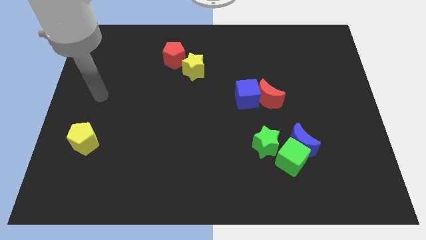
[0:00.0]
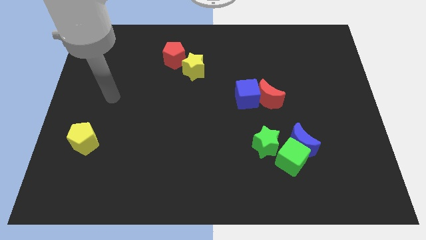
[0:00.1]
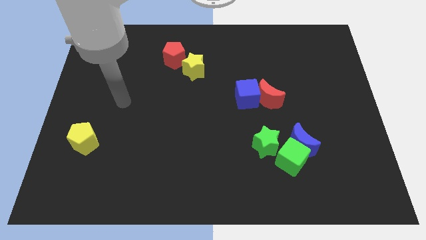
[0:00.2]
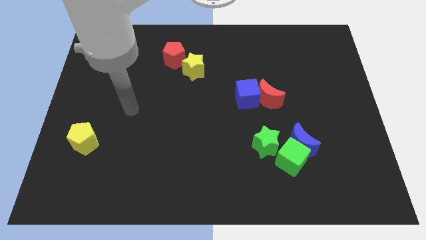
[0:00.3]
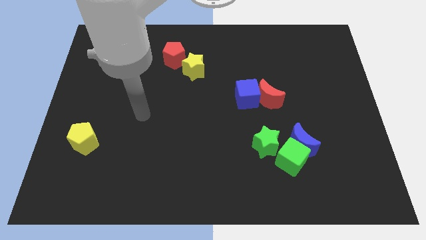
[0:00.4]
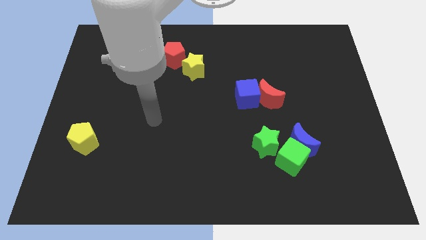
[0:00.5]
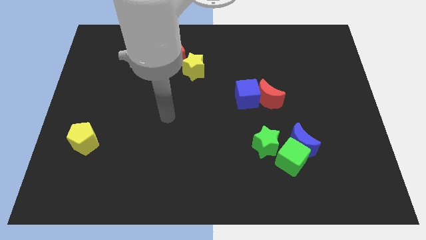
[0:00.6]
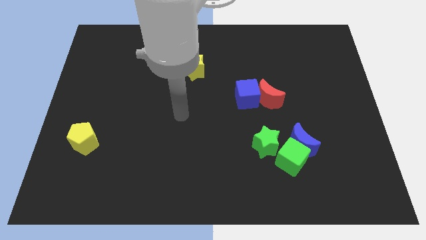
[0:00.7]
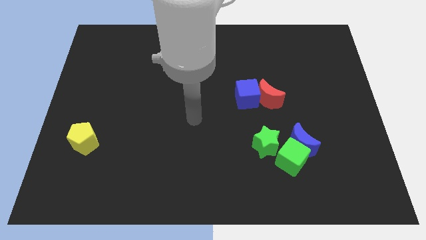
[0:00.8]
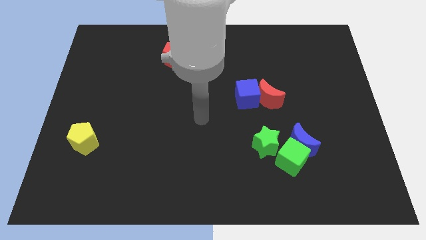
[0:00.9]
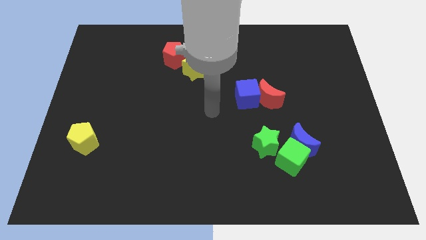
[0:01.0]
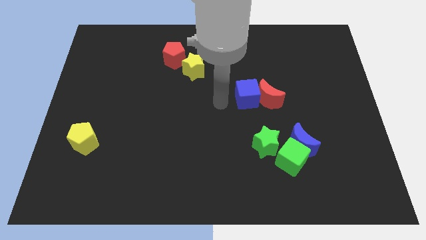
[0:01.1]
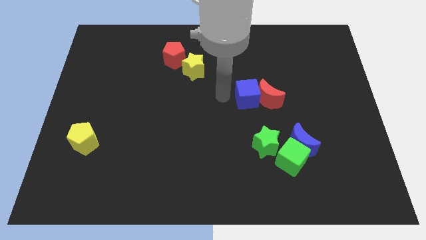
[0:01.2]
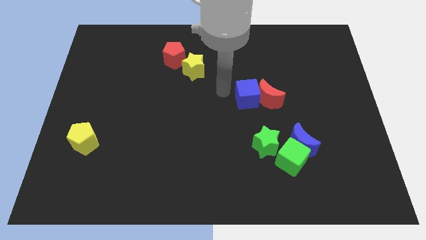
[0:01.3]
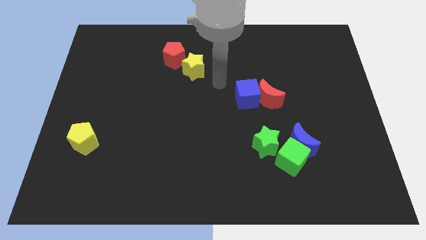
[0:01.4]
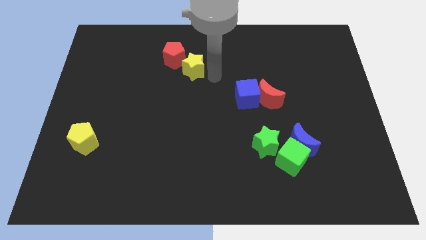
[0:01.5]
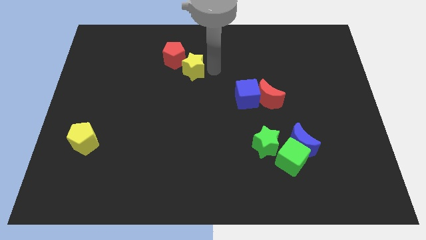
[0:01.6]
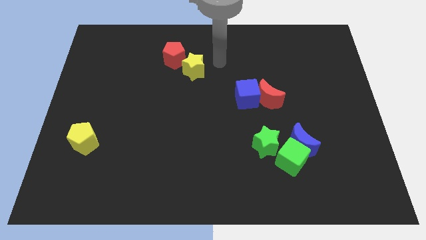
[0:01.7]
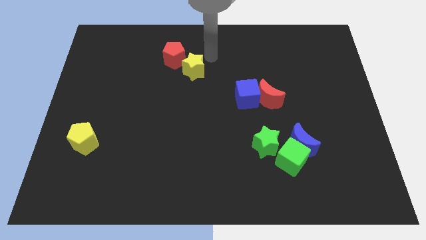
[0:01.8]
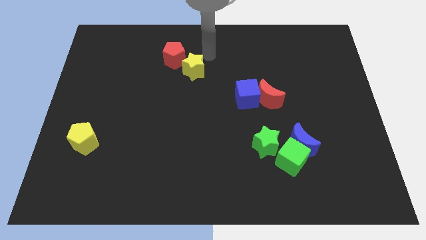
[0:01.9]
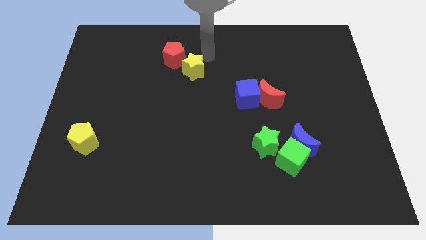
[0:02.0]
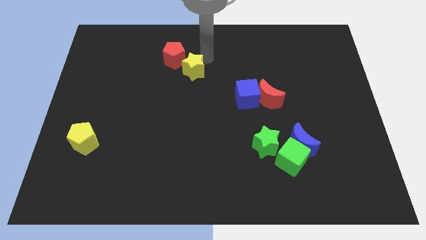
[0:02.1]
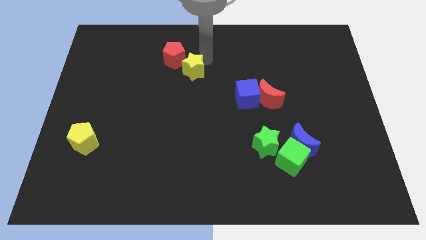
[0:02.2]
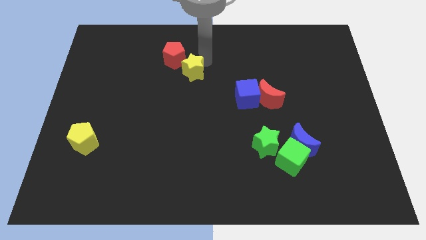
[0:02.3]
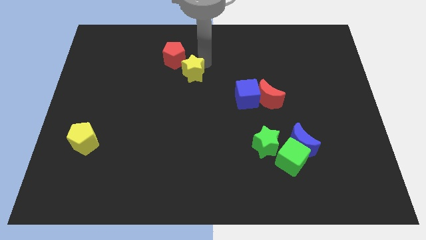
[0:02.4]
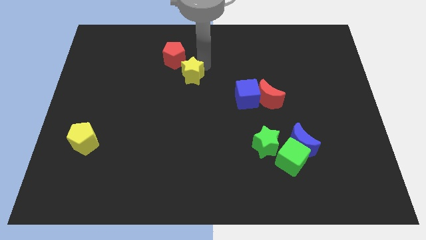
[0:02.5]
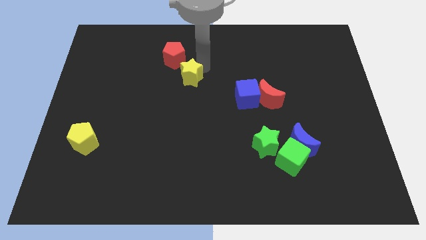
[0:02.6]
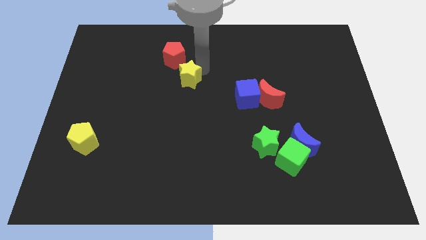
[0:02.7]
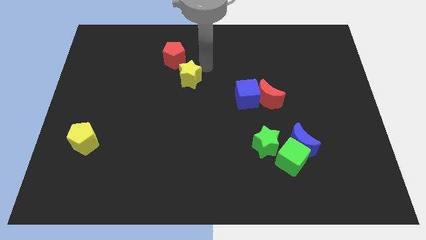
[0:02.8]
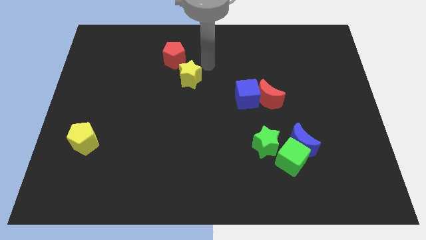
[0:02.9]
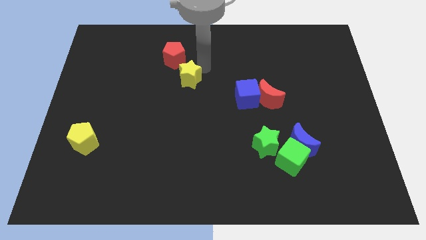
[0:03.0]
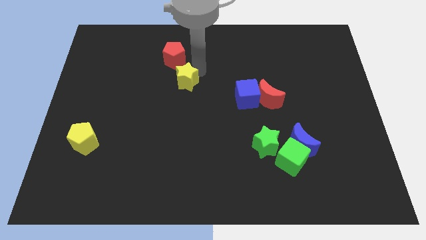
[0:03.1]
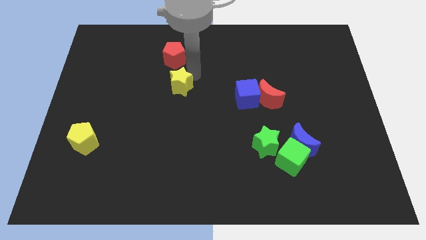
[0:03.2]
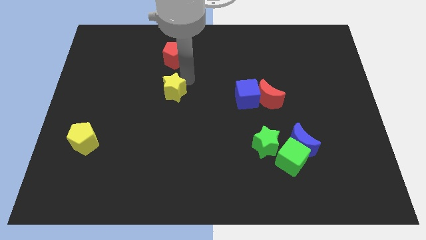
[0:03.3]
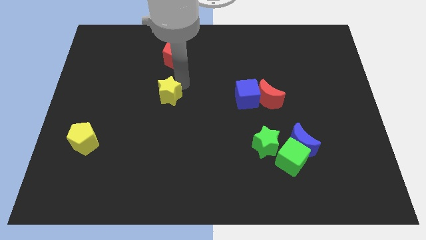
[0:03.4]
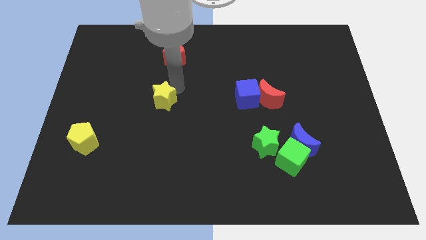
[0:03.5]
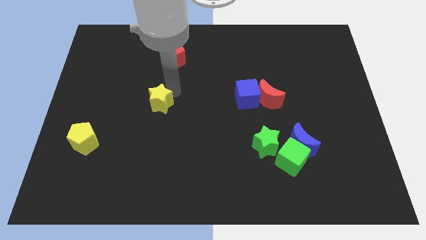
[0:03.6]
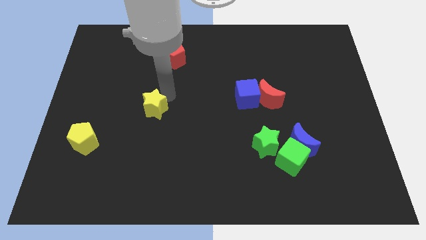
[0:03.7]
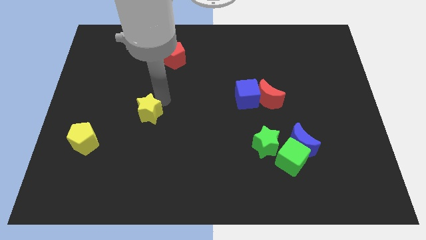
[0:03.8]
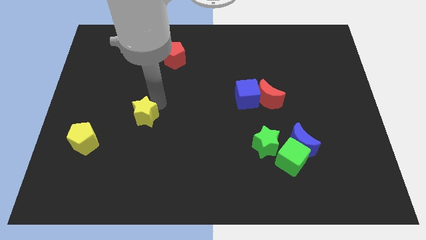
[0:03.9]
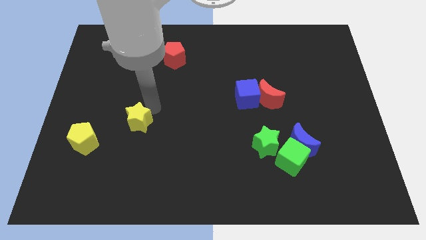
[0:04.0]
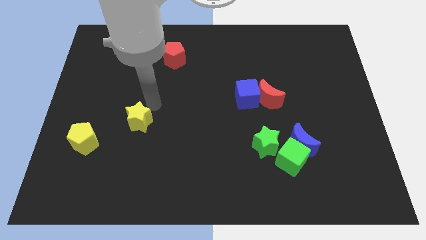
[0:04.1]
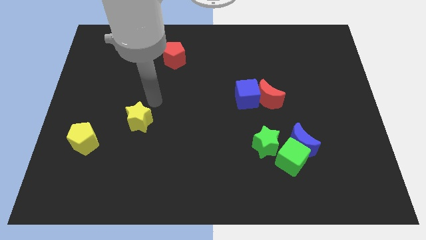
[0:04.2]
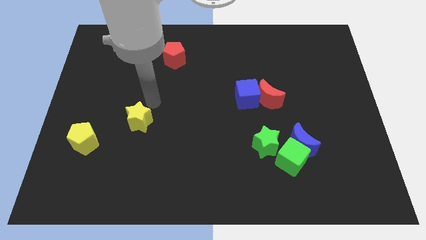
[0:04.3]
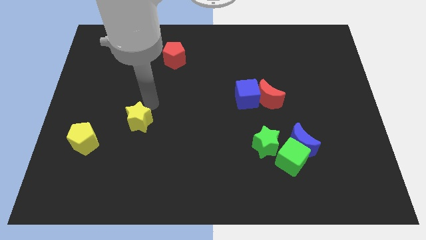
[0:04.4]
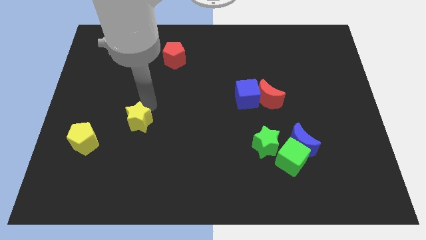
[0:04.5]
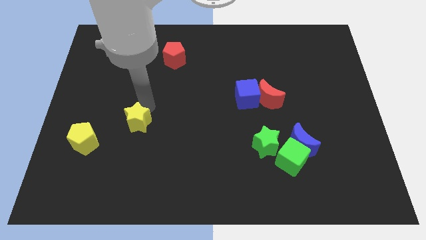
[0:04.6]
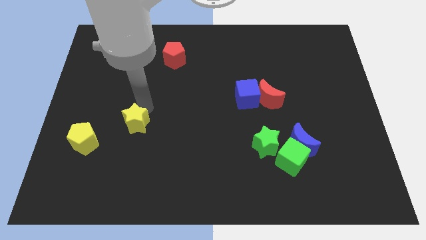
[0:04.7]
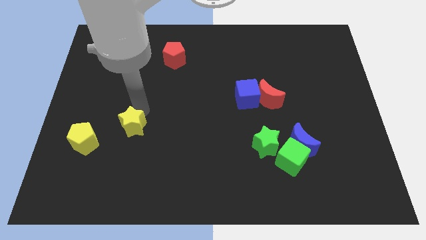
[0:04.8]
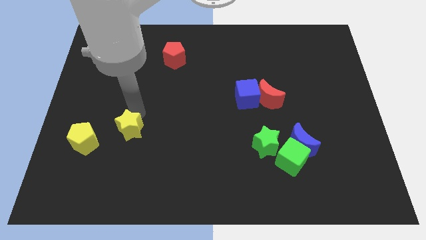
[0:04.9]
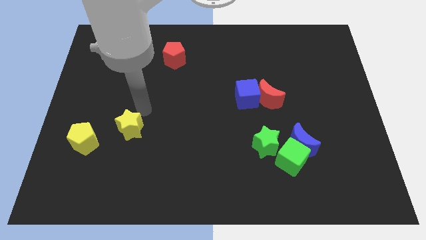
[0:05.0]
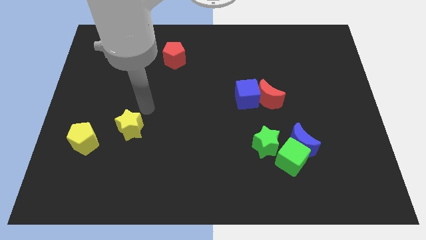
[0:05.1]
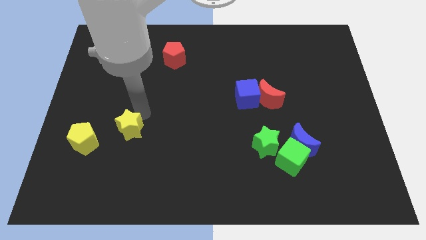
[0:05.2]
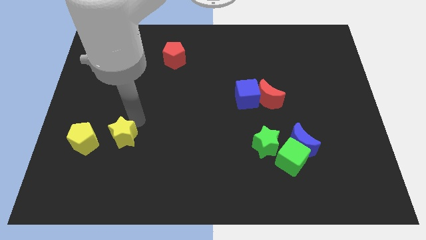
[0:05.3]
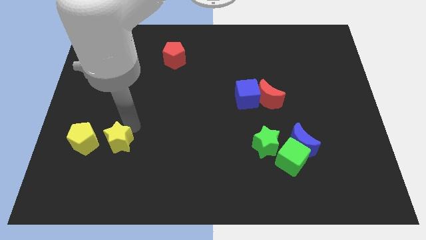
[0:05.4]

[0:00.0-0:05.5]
push the yellow star to the bottom right side of the yellow pentagon

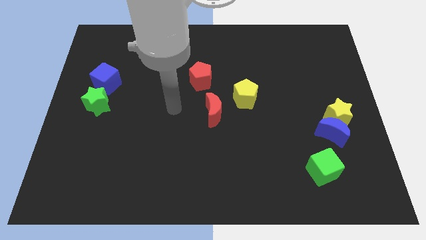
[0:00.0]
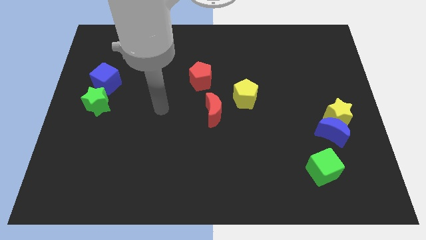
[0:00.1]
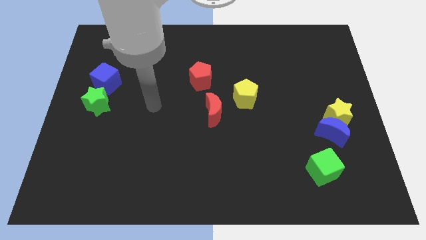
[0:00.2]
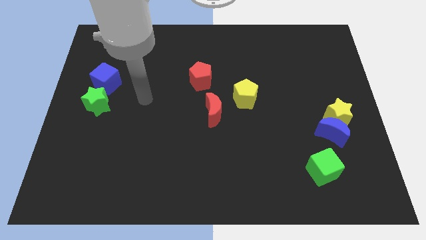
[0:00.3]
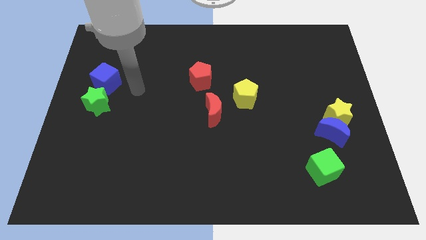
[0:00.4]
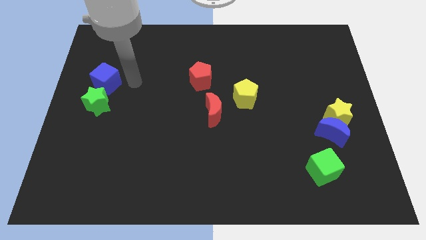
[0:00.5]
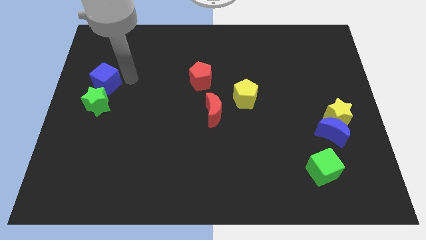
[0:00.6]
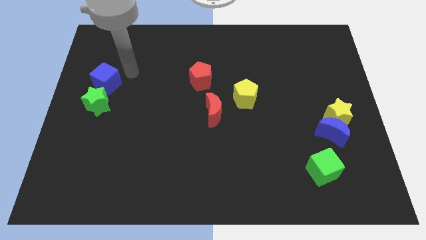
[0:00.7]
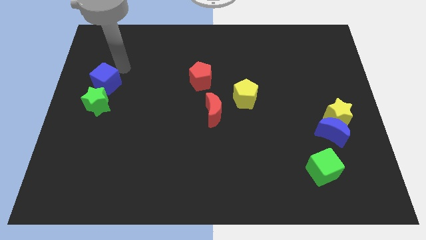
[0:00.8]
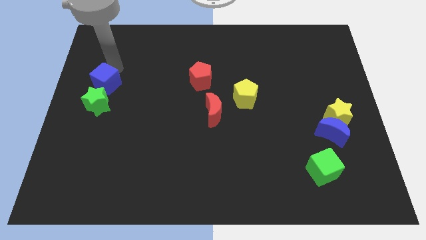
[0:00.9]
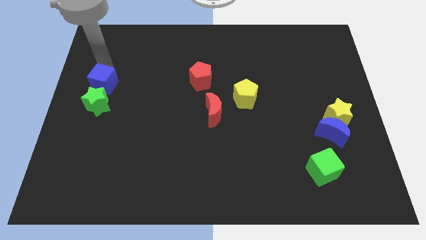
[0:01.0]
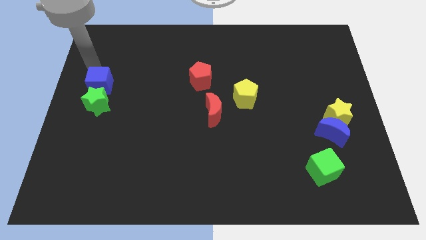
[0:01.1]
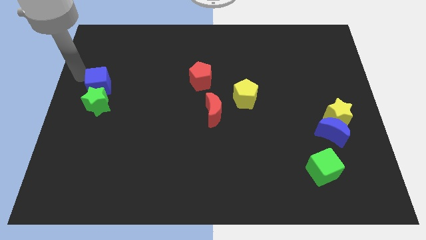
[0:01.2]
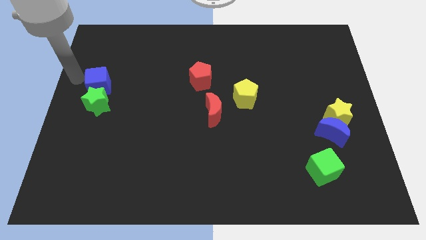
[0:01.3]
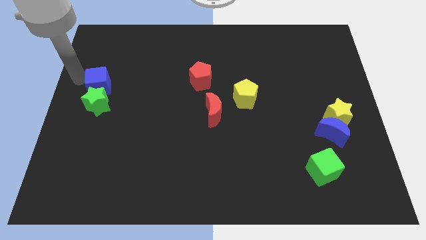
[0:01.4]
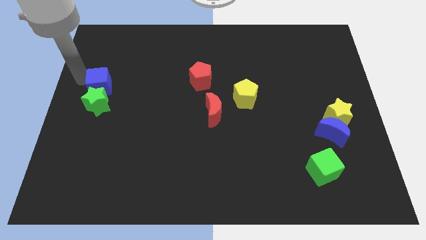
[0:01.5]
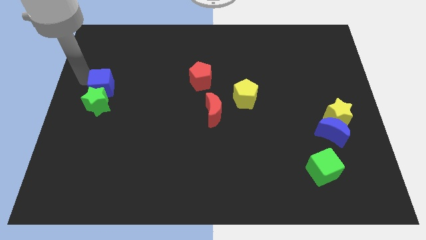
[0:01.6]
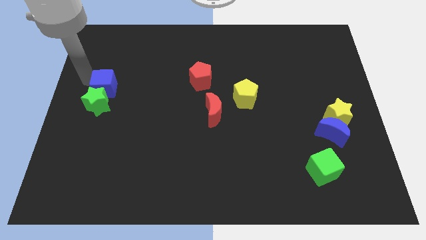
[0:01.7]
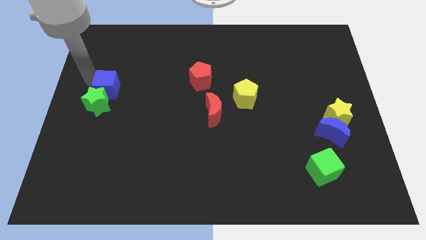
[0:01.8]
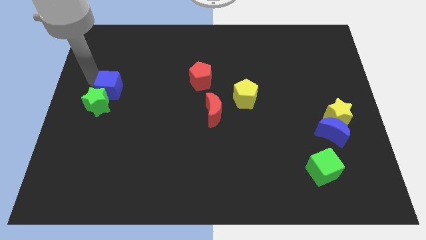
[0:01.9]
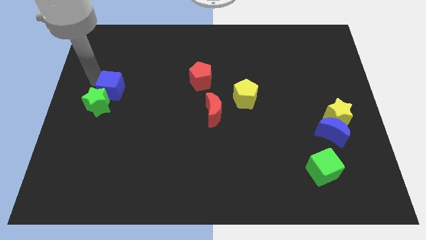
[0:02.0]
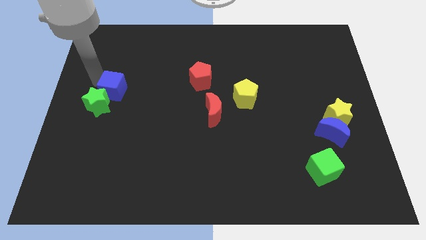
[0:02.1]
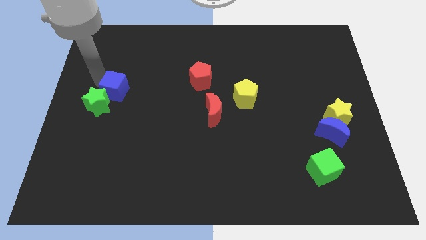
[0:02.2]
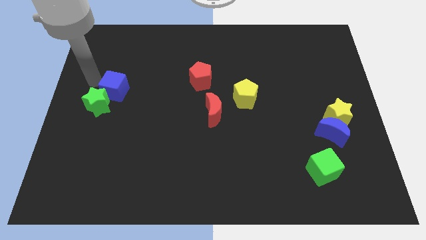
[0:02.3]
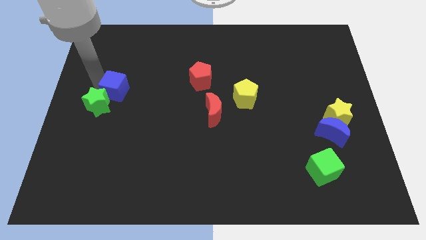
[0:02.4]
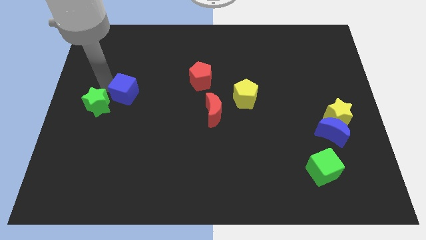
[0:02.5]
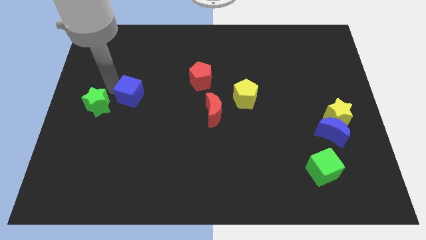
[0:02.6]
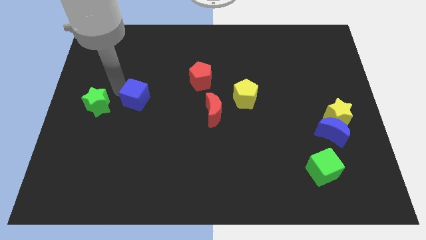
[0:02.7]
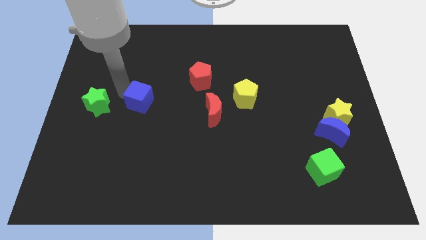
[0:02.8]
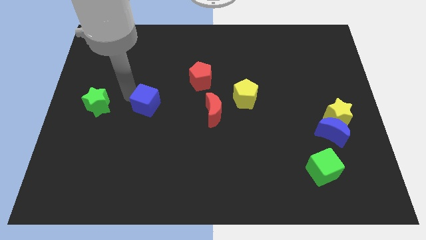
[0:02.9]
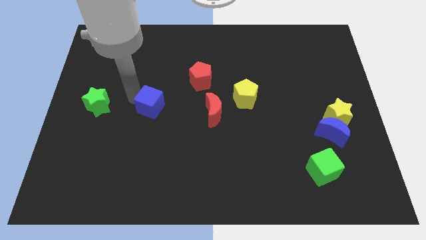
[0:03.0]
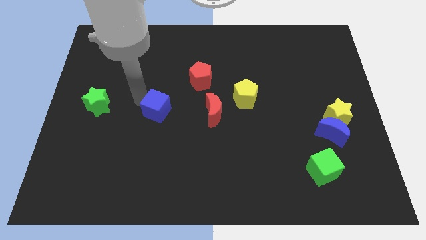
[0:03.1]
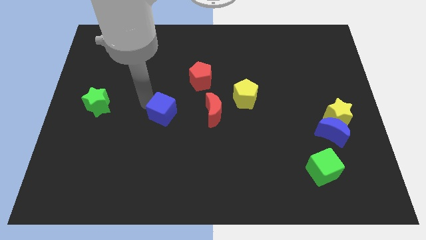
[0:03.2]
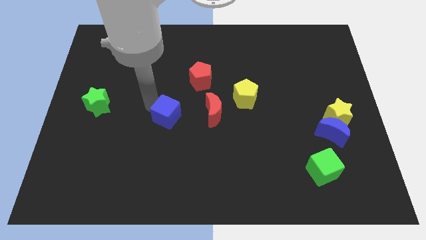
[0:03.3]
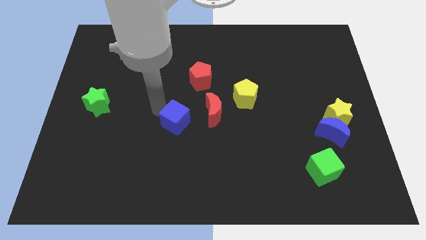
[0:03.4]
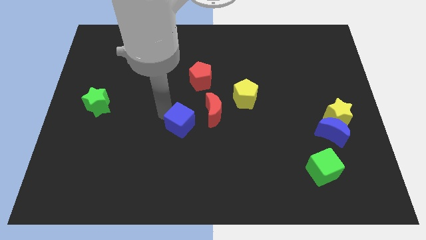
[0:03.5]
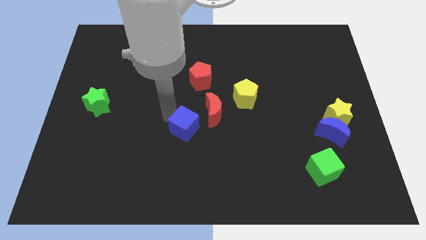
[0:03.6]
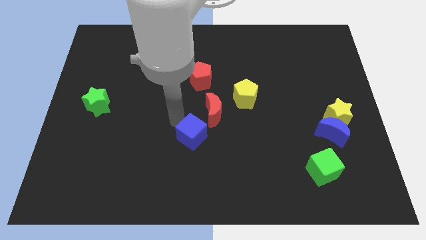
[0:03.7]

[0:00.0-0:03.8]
put the blue cube to the bottom side of the red moon
